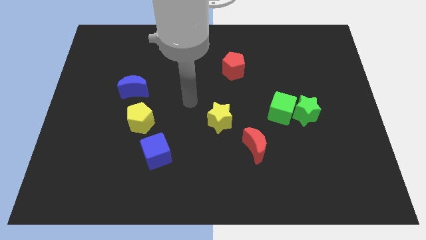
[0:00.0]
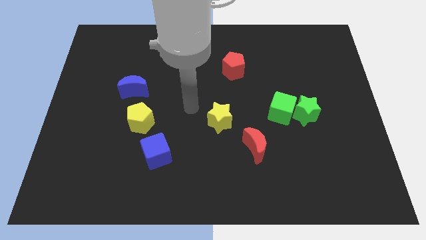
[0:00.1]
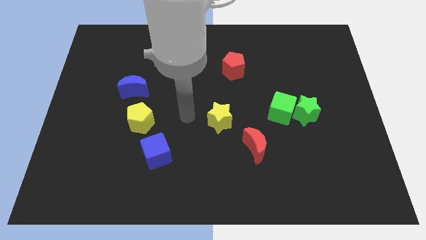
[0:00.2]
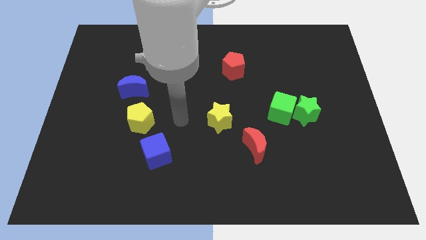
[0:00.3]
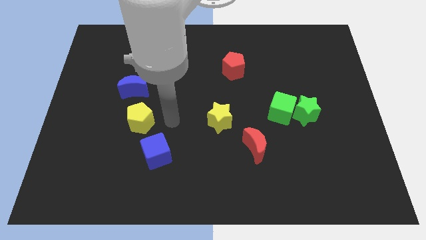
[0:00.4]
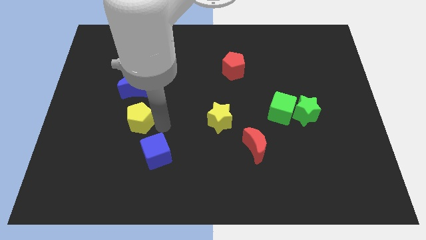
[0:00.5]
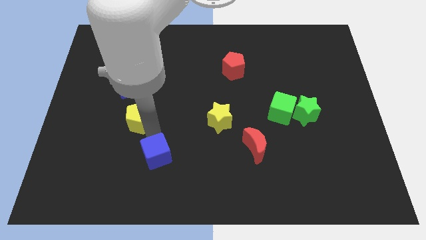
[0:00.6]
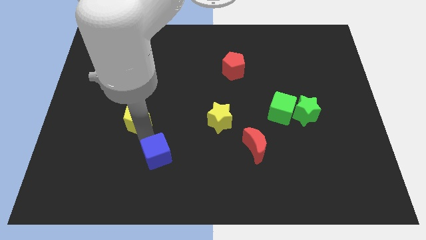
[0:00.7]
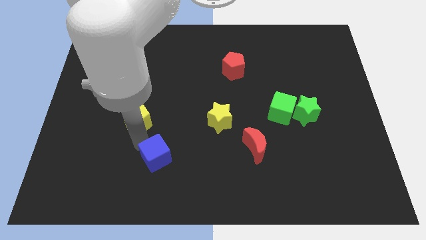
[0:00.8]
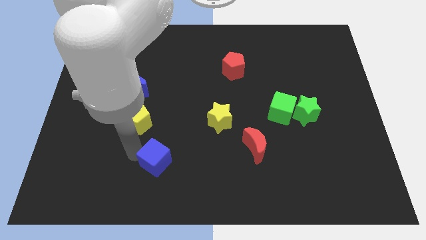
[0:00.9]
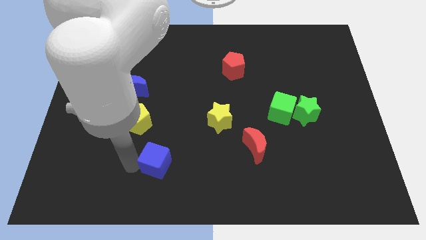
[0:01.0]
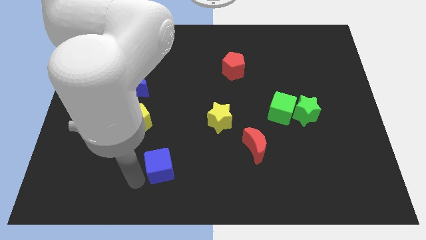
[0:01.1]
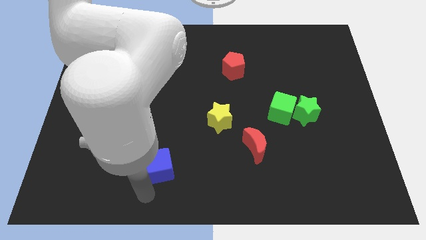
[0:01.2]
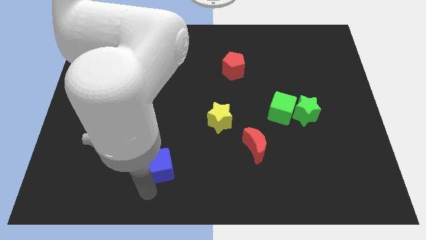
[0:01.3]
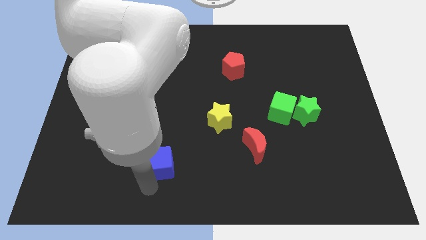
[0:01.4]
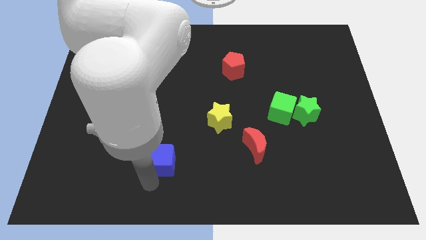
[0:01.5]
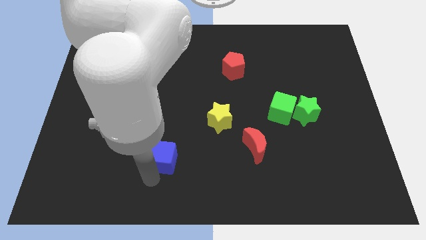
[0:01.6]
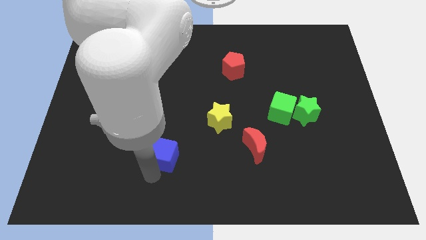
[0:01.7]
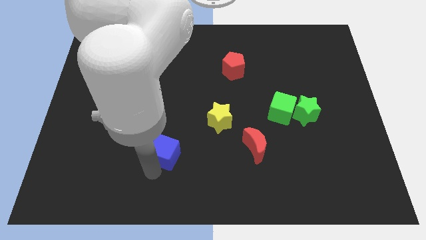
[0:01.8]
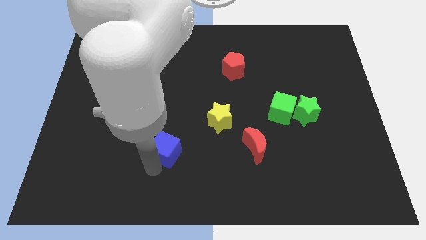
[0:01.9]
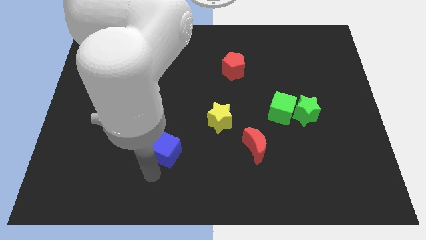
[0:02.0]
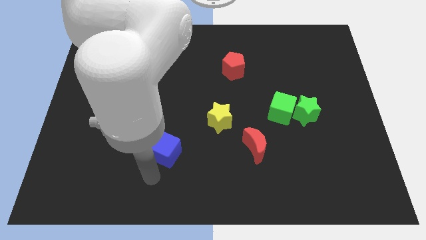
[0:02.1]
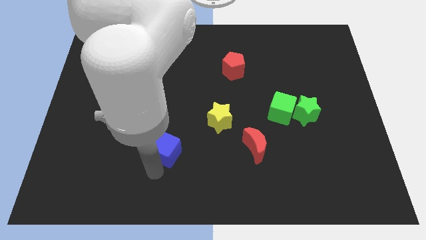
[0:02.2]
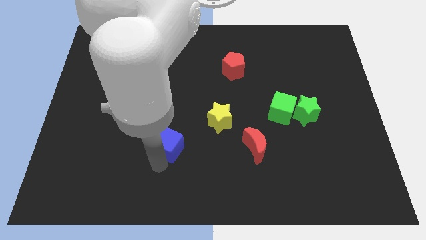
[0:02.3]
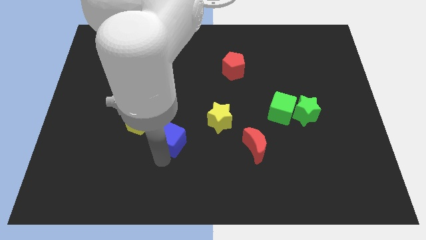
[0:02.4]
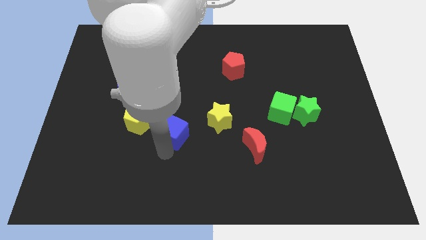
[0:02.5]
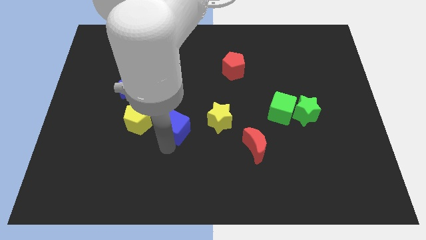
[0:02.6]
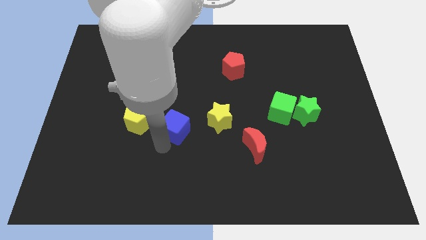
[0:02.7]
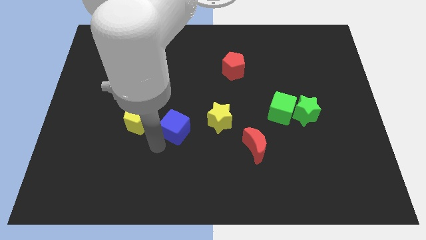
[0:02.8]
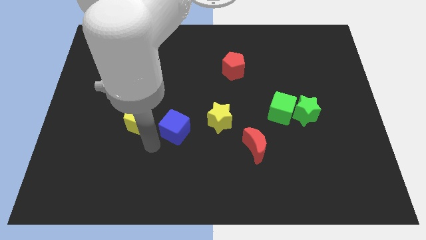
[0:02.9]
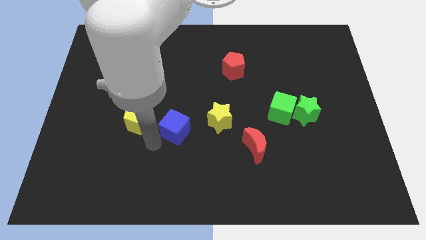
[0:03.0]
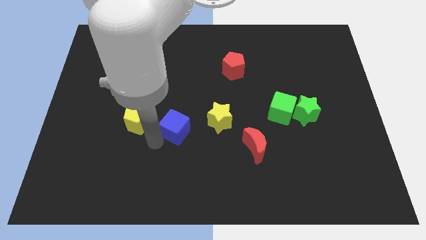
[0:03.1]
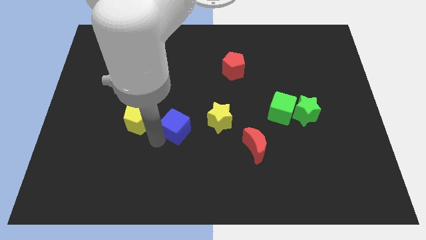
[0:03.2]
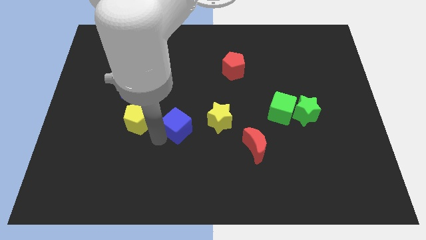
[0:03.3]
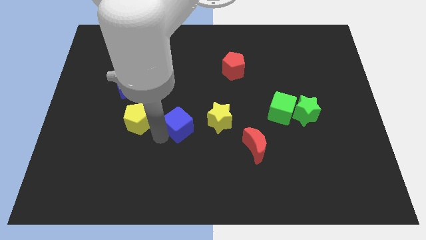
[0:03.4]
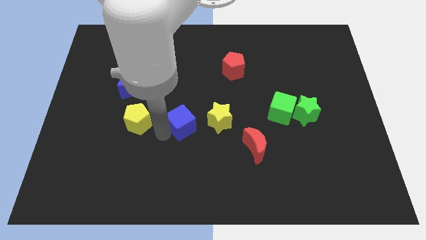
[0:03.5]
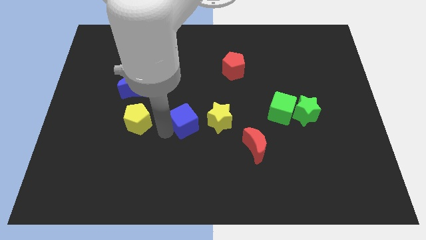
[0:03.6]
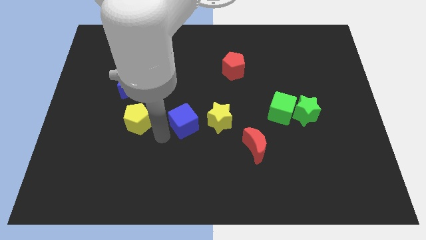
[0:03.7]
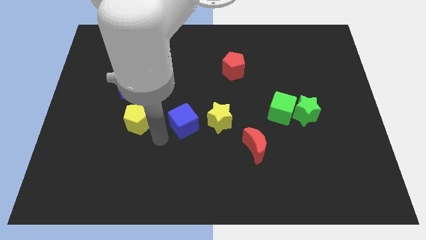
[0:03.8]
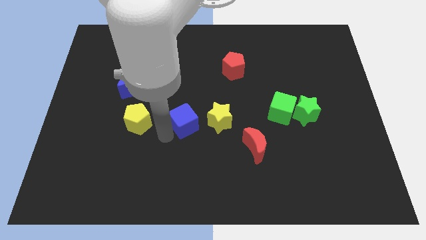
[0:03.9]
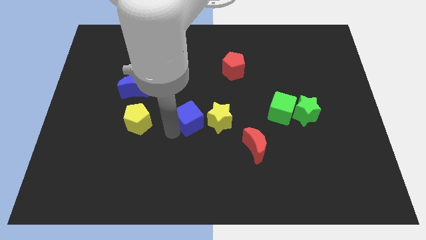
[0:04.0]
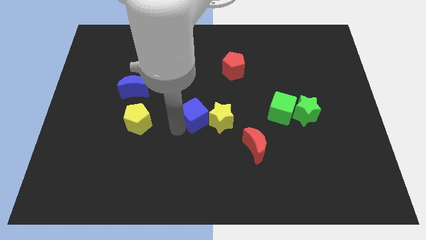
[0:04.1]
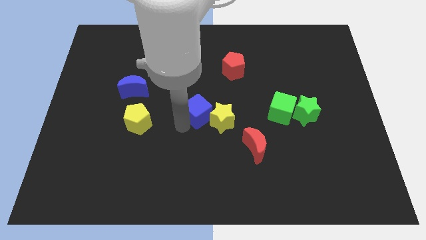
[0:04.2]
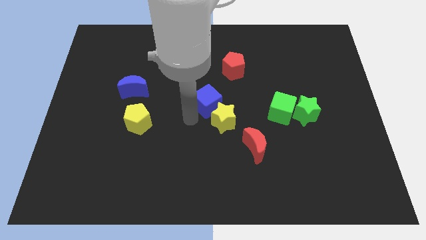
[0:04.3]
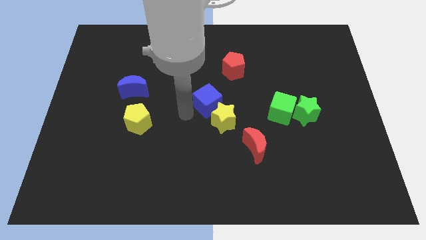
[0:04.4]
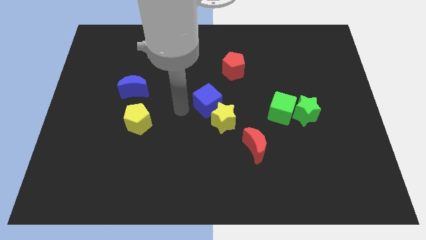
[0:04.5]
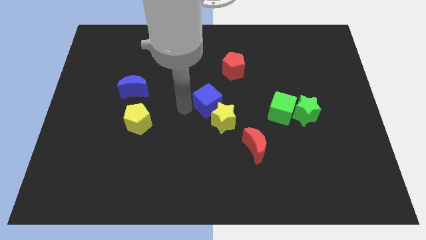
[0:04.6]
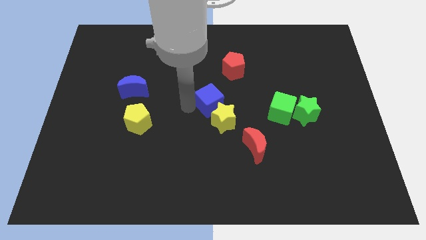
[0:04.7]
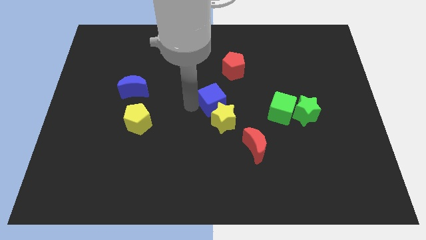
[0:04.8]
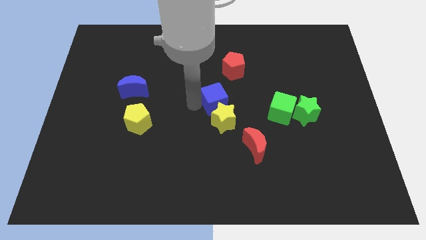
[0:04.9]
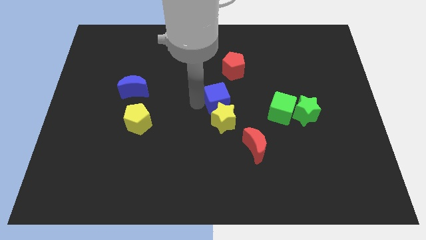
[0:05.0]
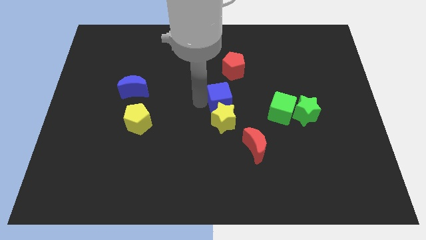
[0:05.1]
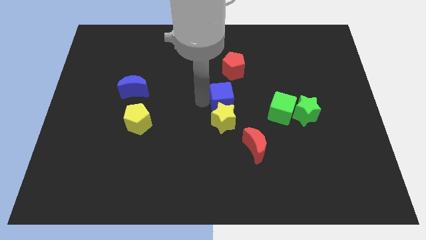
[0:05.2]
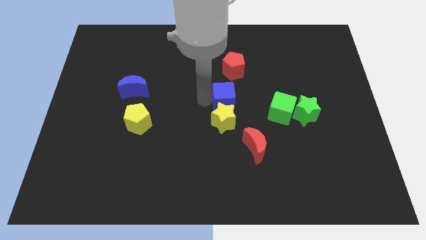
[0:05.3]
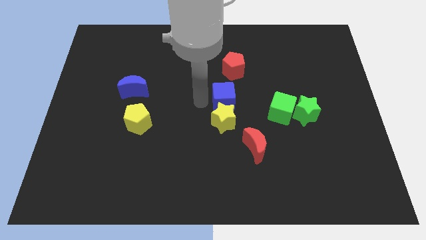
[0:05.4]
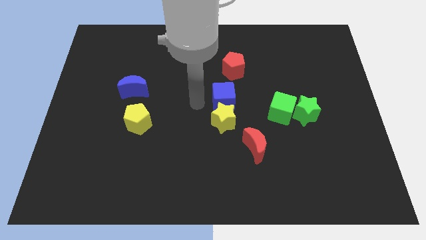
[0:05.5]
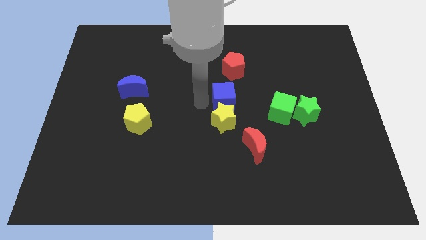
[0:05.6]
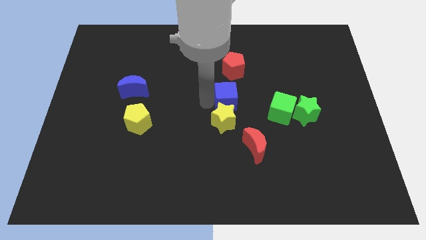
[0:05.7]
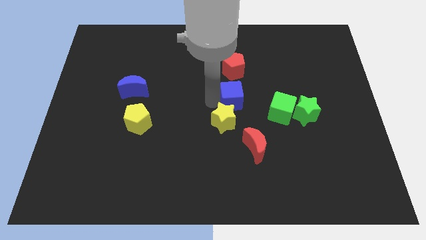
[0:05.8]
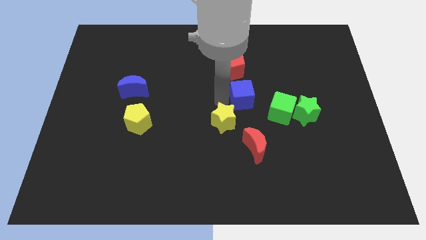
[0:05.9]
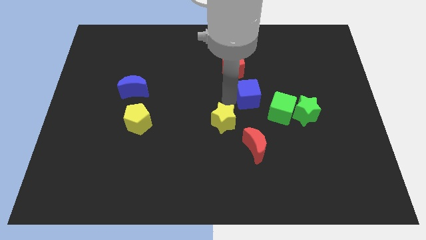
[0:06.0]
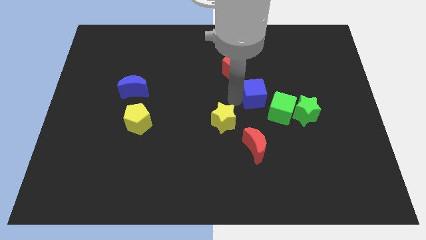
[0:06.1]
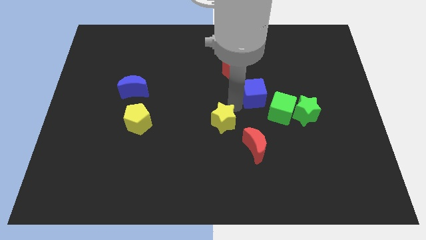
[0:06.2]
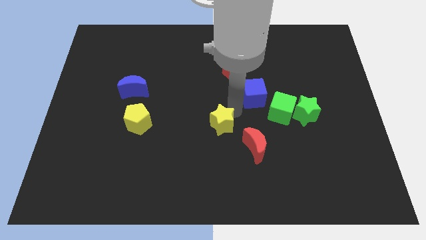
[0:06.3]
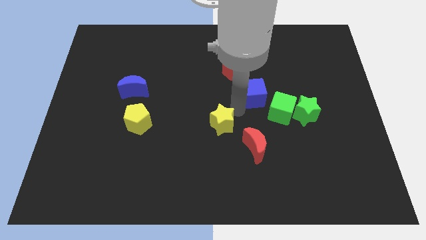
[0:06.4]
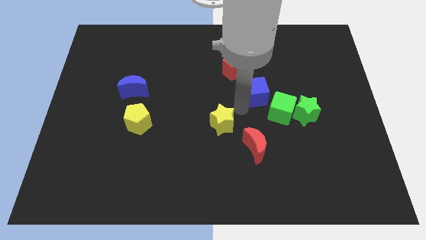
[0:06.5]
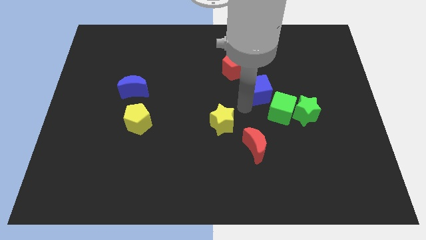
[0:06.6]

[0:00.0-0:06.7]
put the blue cube to the top side of the green cube

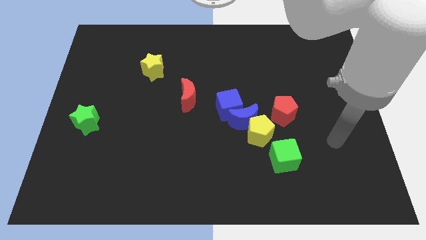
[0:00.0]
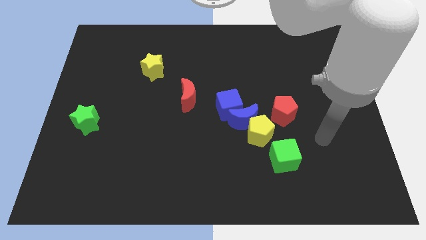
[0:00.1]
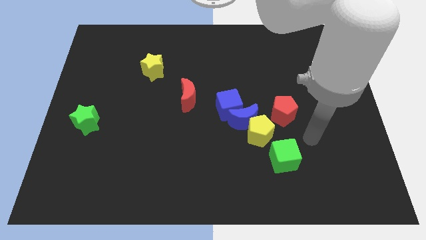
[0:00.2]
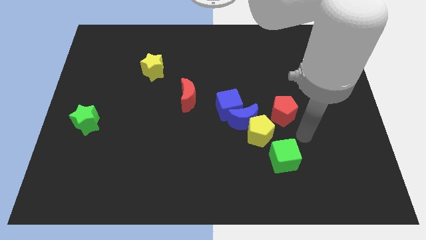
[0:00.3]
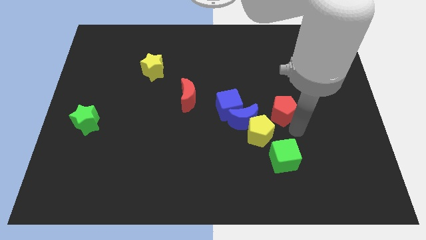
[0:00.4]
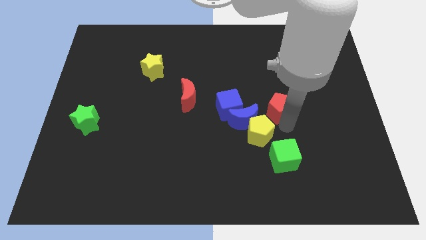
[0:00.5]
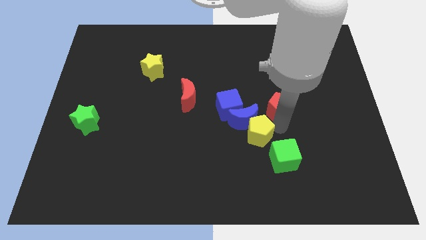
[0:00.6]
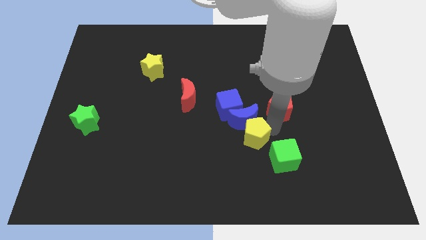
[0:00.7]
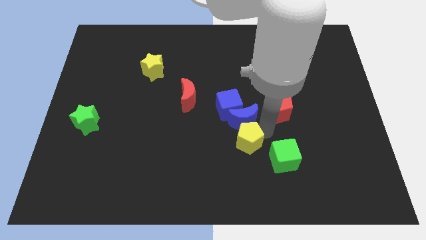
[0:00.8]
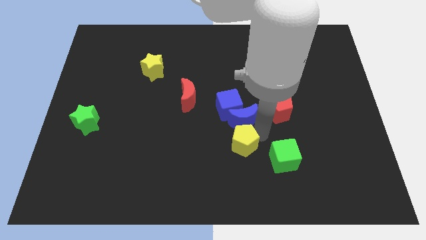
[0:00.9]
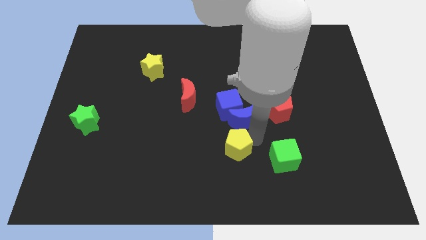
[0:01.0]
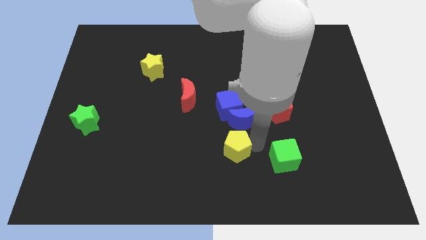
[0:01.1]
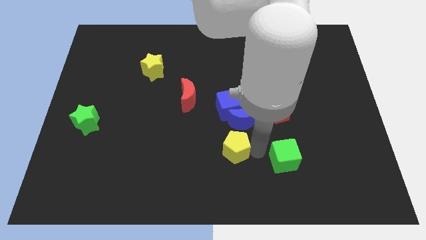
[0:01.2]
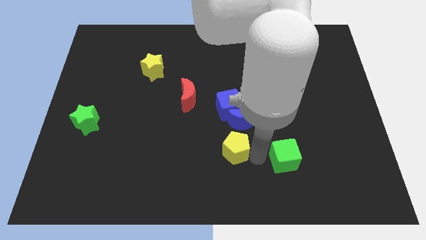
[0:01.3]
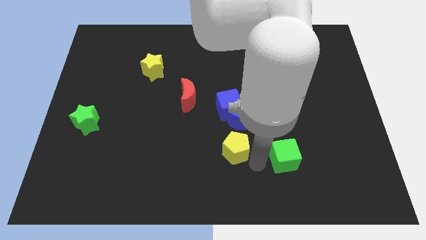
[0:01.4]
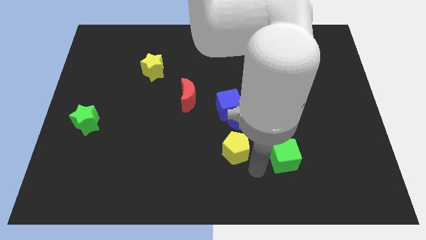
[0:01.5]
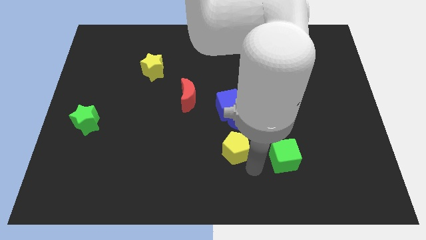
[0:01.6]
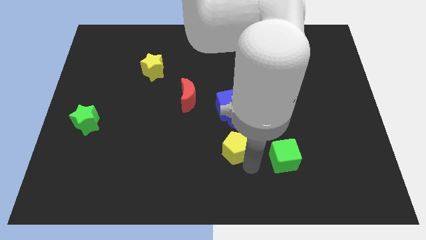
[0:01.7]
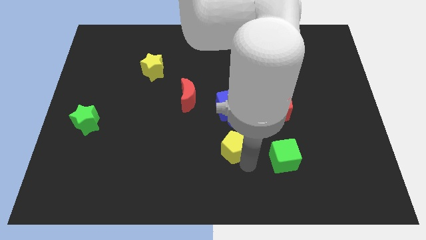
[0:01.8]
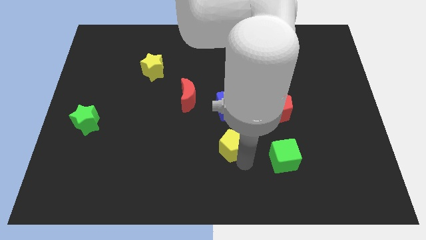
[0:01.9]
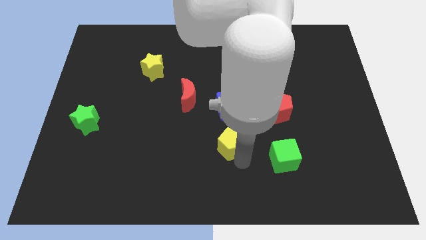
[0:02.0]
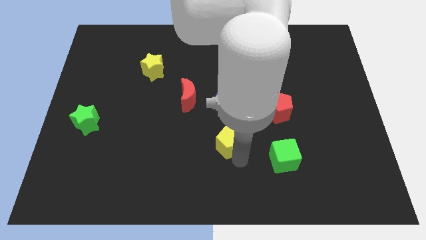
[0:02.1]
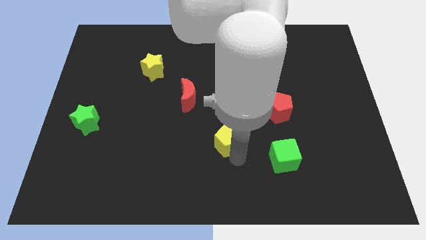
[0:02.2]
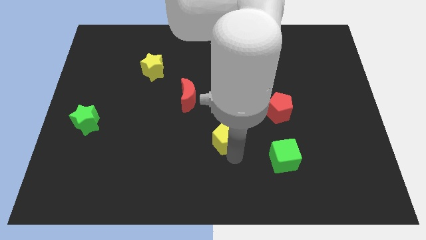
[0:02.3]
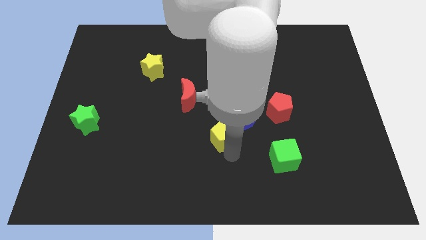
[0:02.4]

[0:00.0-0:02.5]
move the yellow pentagon to the bottom left of the blue cube
